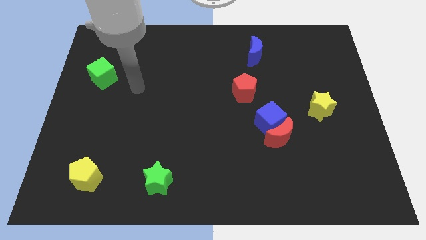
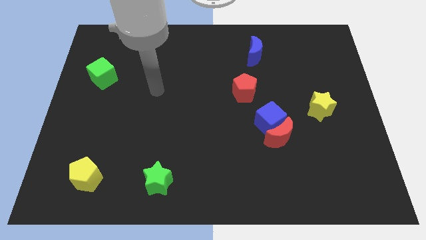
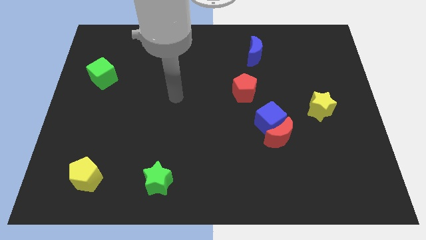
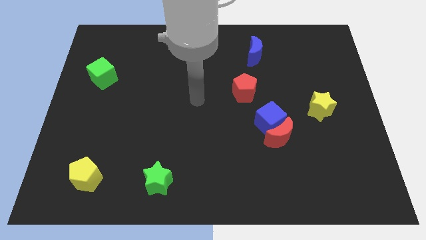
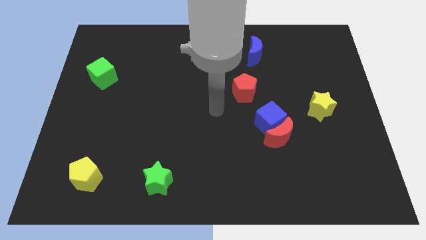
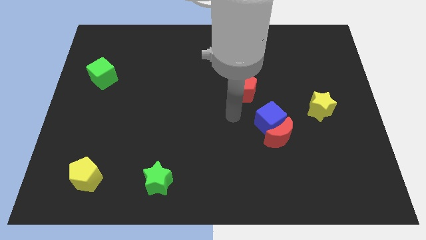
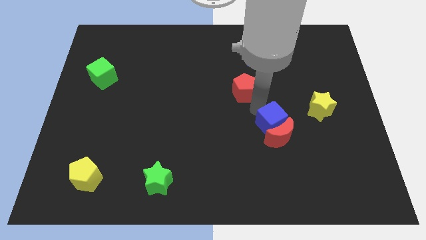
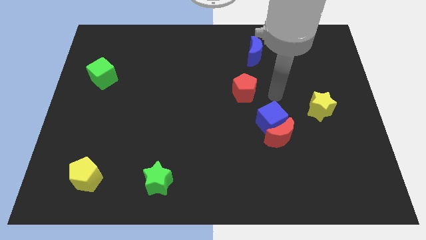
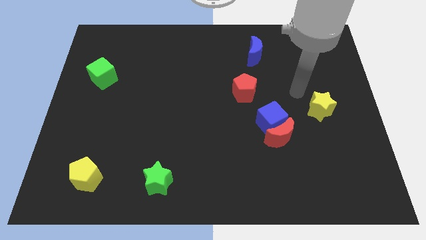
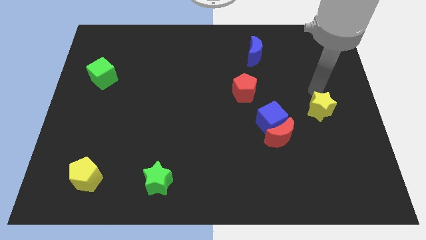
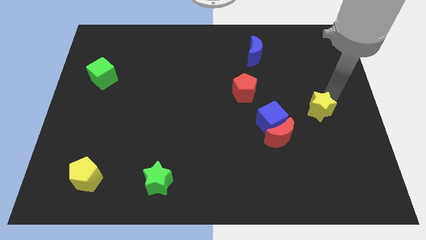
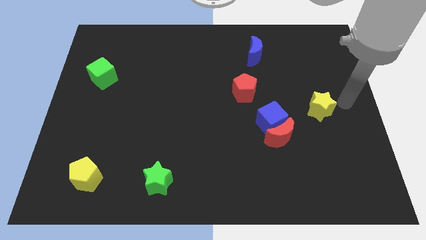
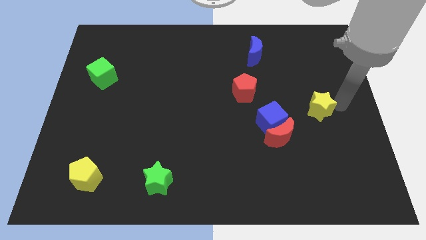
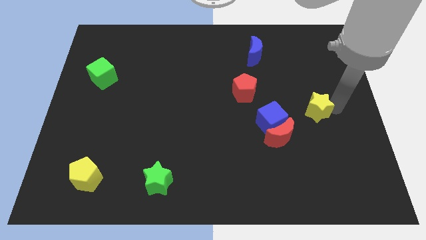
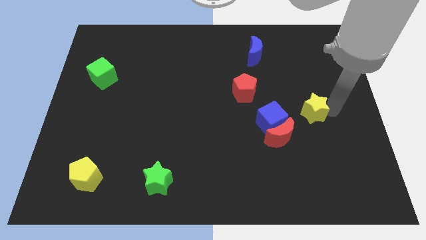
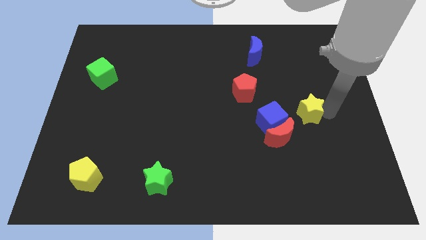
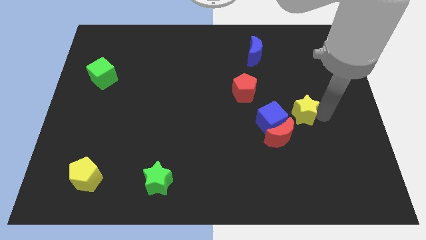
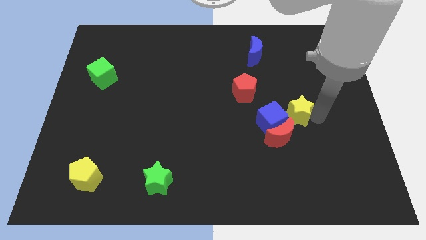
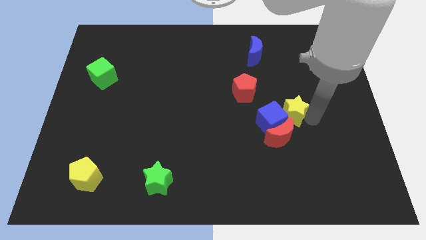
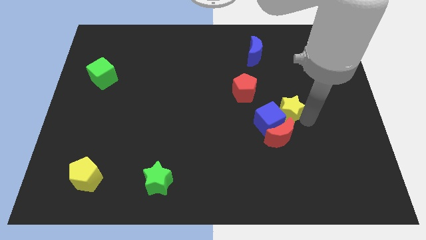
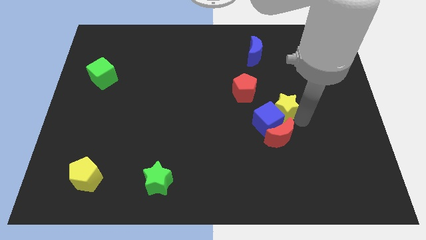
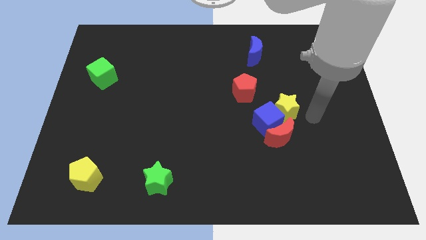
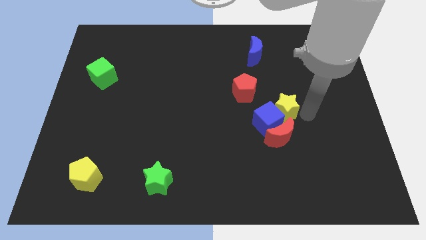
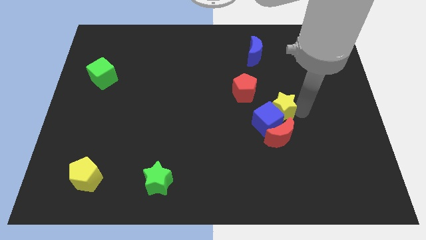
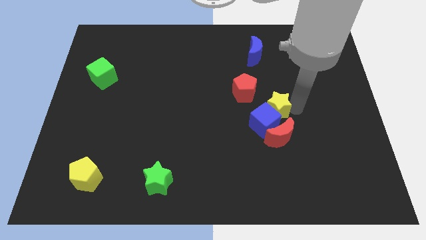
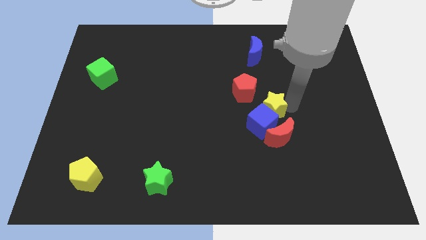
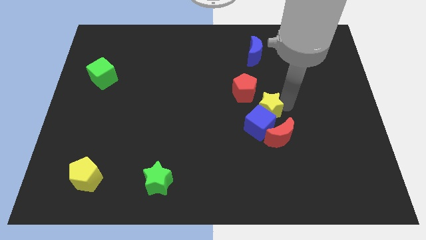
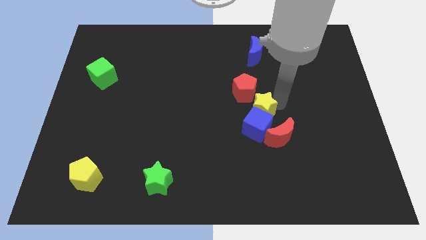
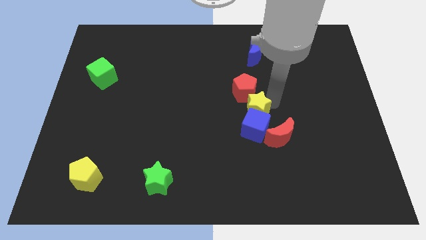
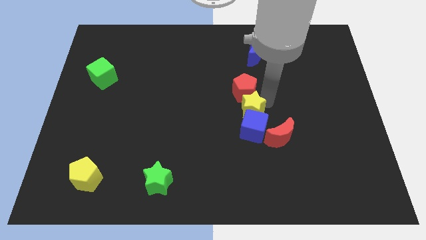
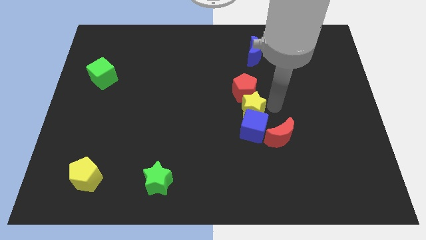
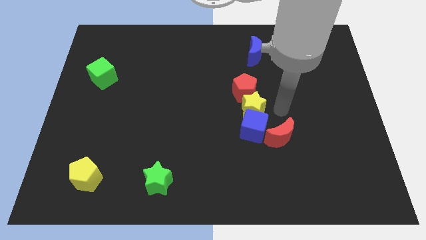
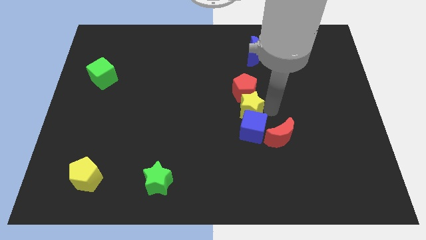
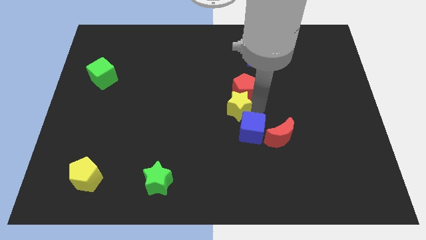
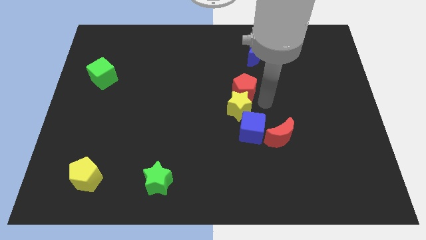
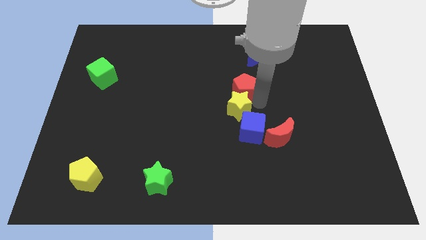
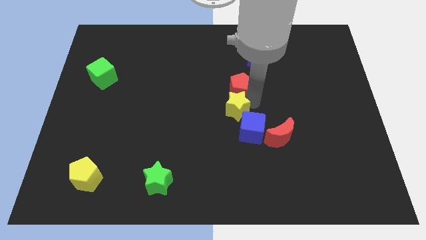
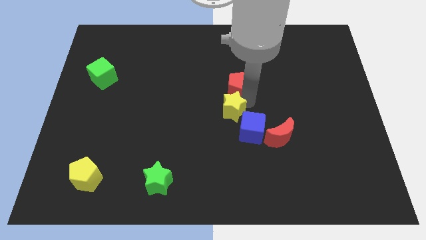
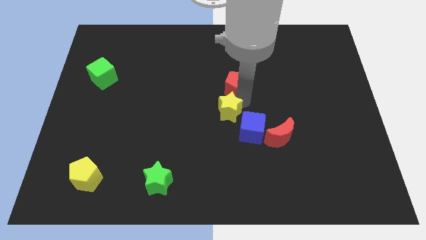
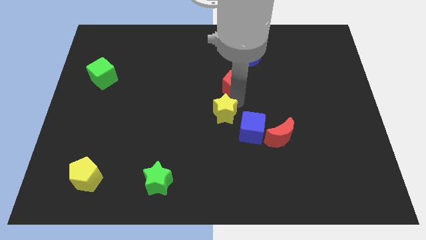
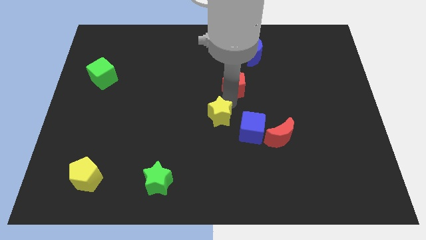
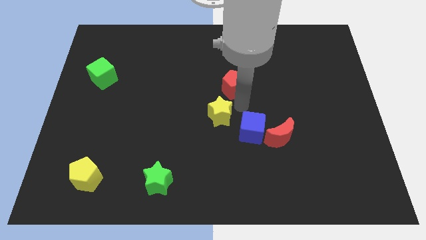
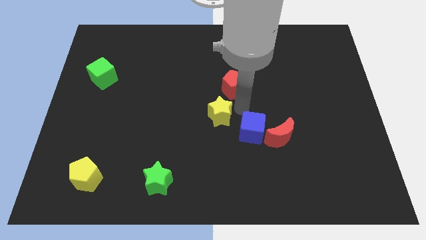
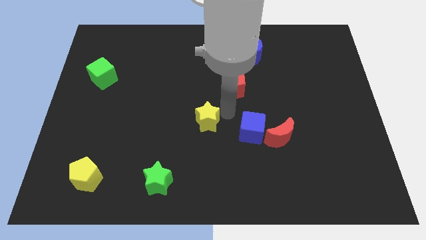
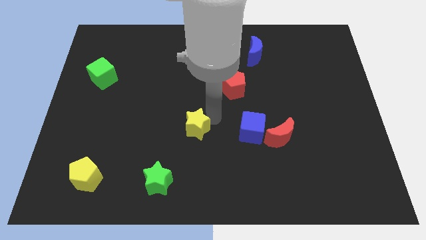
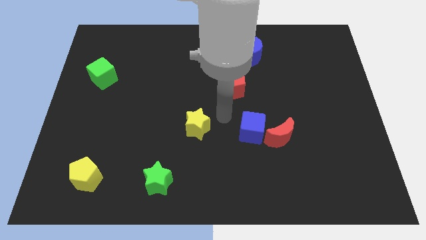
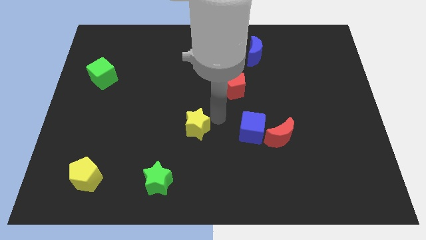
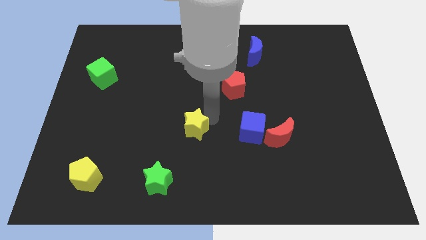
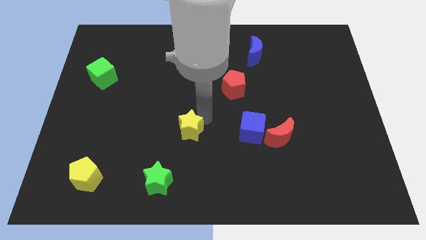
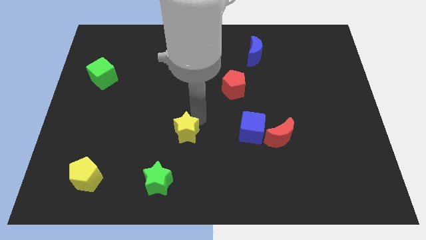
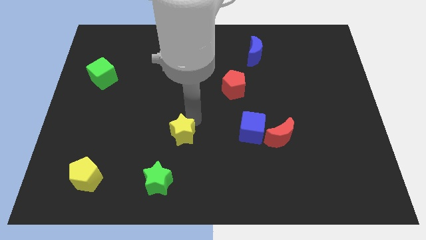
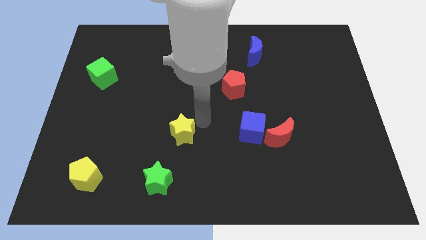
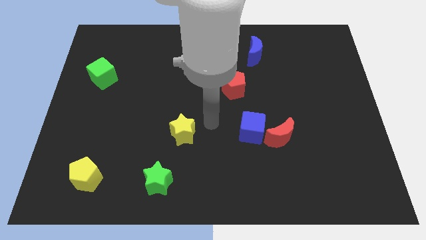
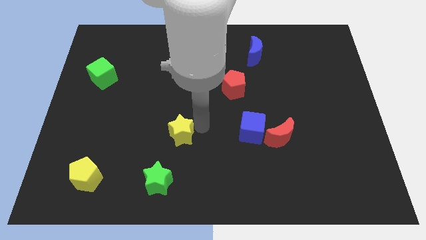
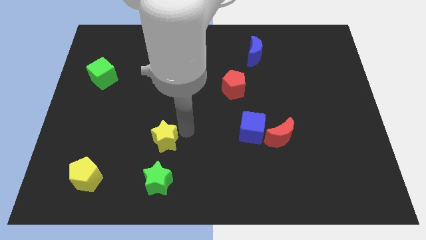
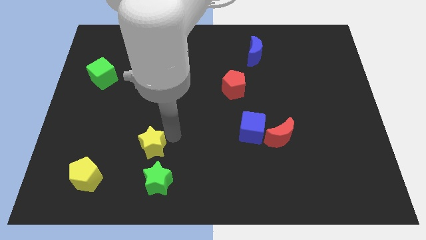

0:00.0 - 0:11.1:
put the yellow star to the top left side of the green star

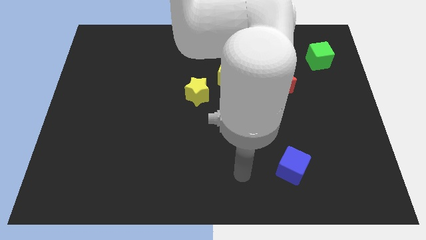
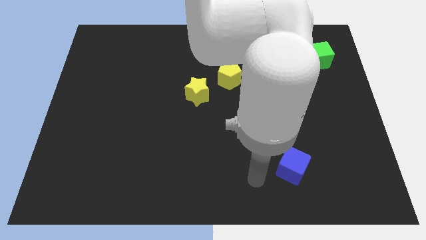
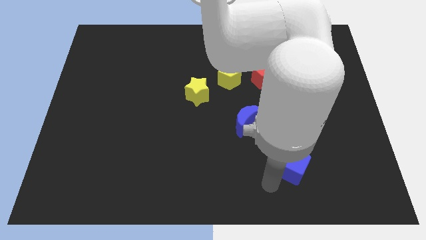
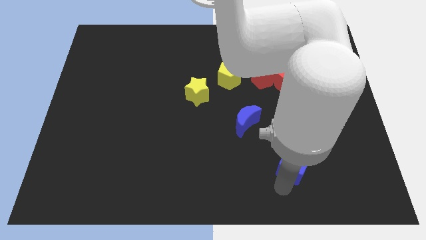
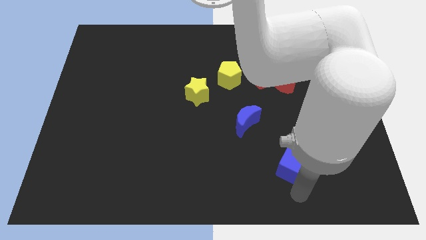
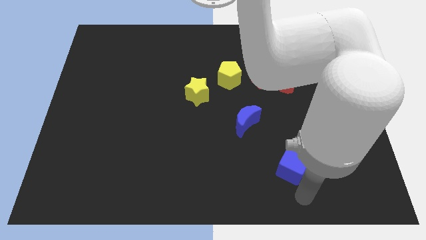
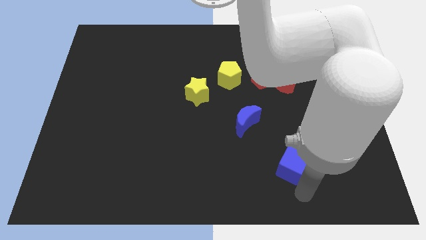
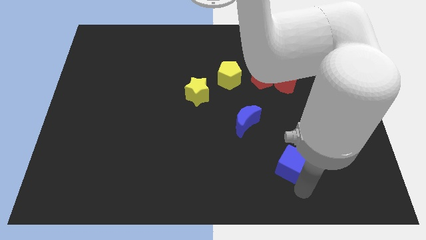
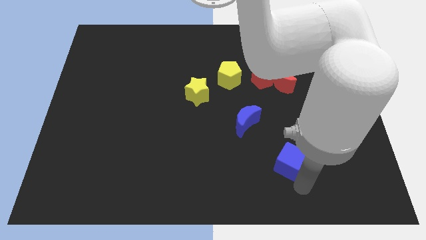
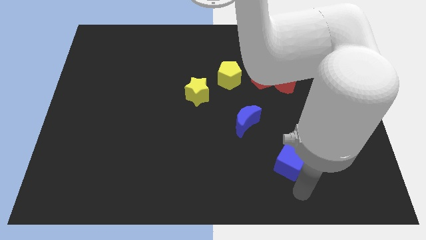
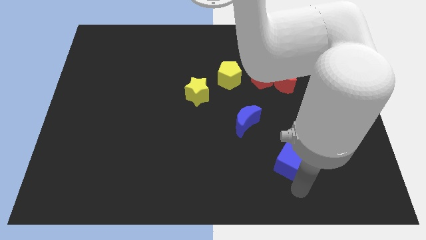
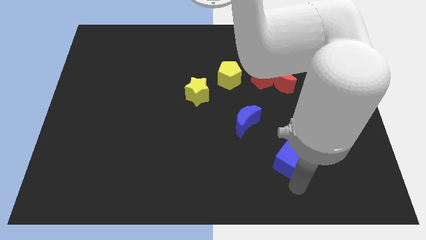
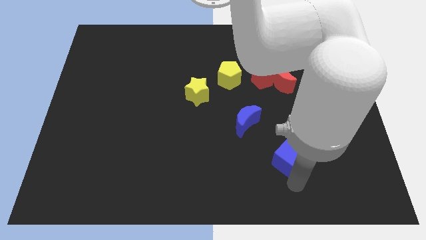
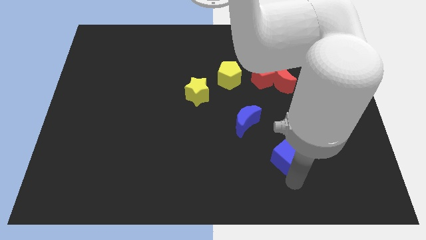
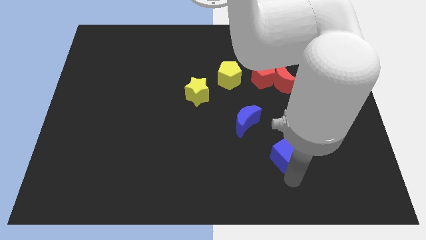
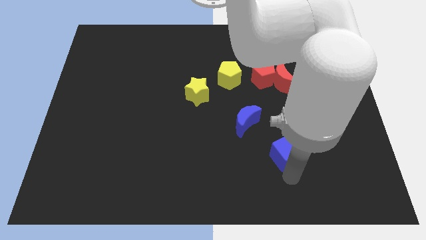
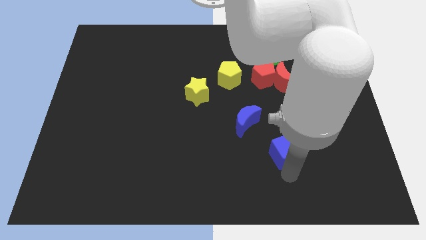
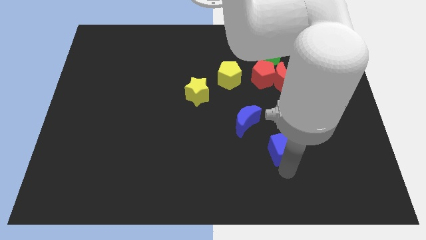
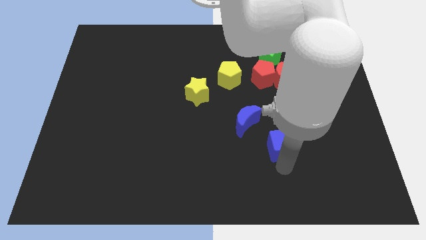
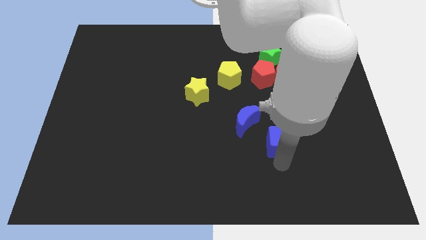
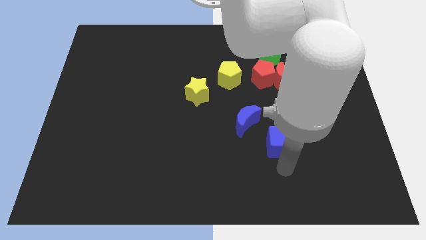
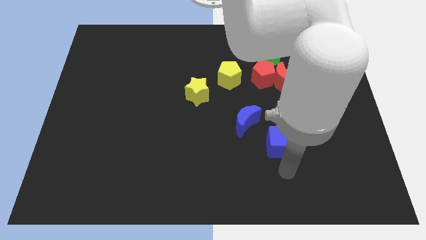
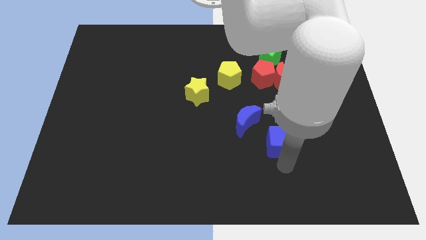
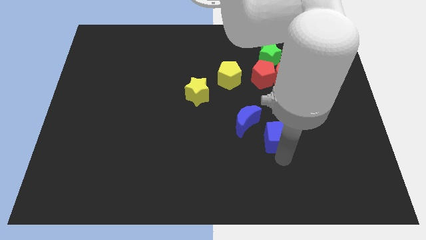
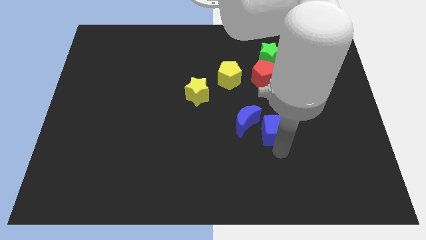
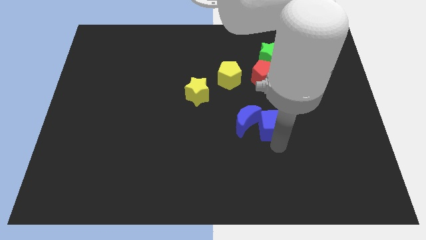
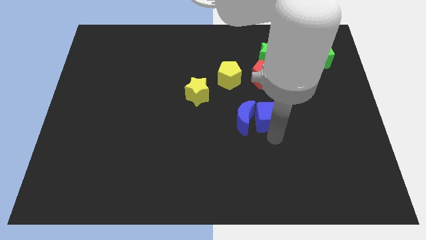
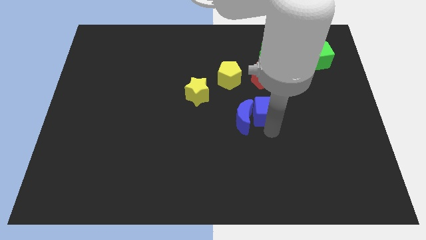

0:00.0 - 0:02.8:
push the blue cube diagonally down and to the left of the red moon
